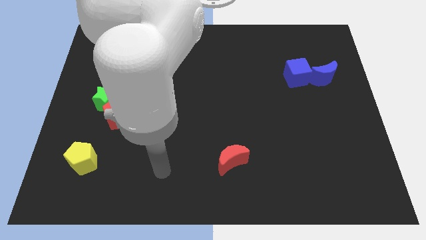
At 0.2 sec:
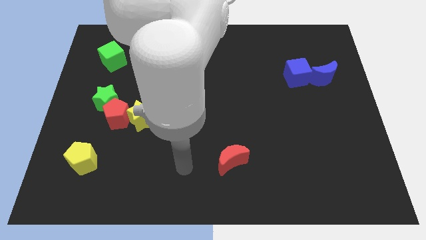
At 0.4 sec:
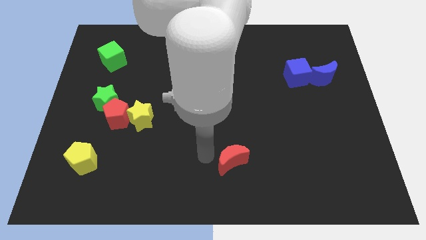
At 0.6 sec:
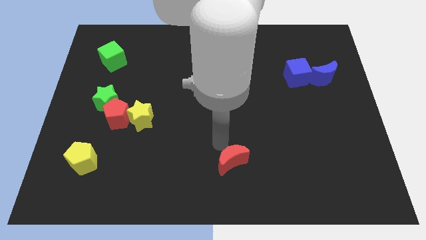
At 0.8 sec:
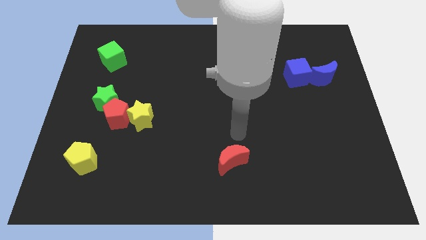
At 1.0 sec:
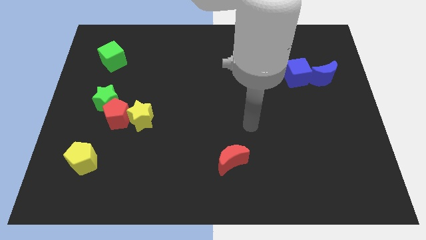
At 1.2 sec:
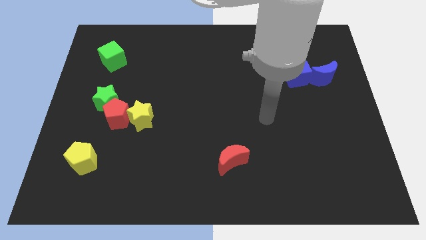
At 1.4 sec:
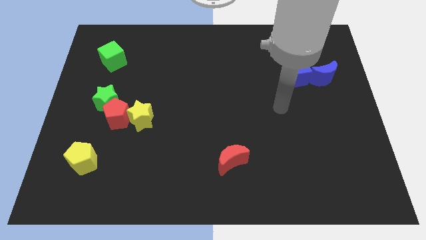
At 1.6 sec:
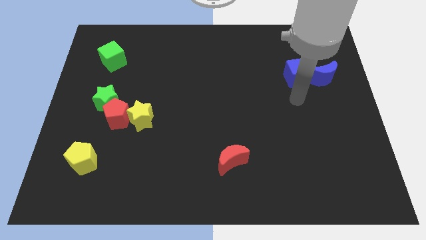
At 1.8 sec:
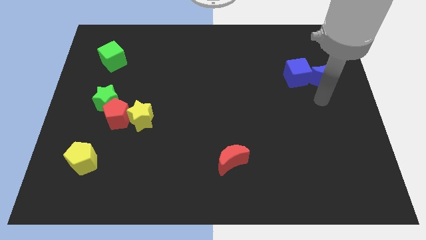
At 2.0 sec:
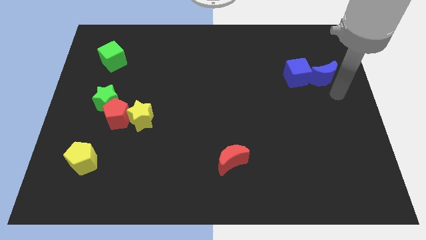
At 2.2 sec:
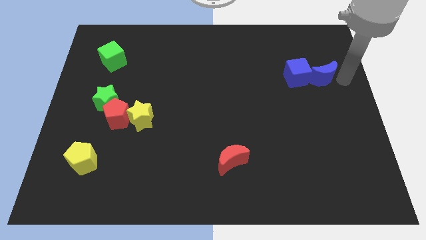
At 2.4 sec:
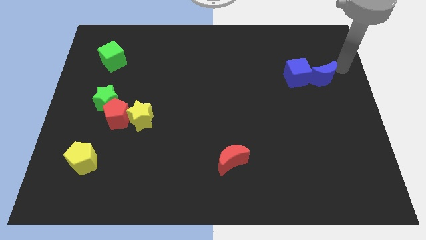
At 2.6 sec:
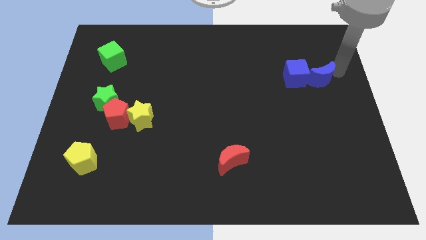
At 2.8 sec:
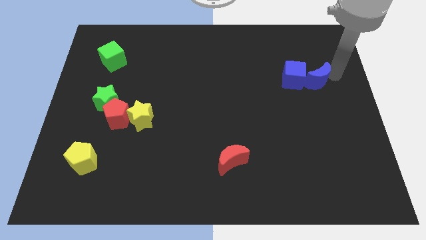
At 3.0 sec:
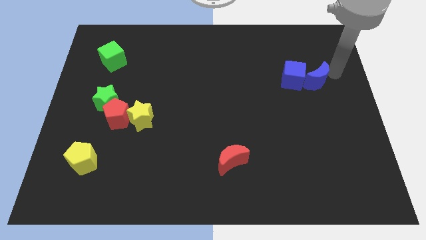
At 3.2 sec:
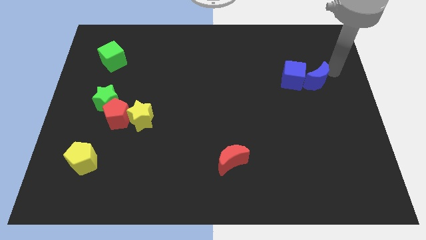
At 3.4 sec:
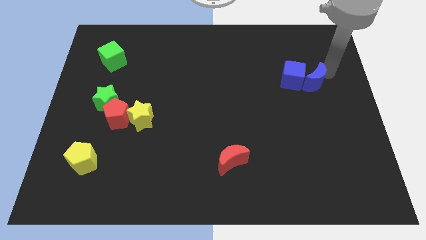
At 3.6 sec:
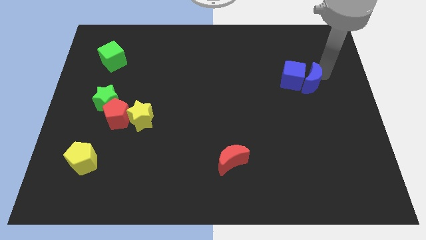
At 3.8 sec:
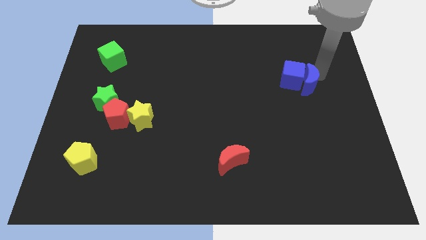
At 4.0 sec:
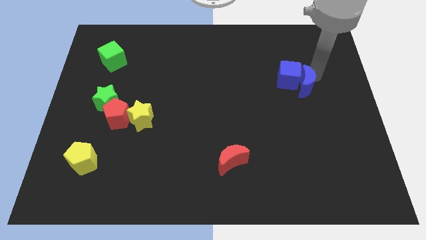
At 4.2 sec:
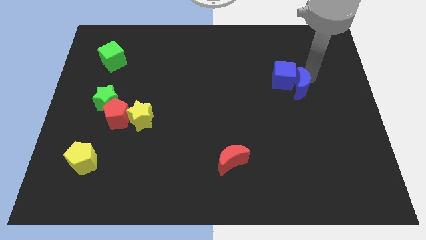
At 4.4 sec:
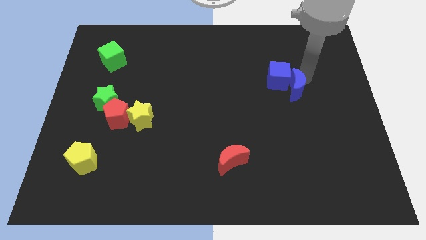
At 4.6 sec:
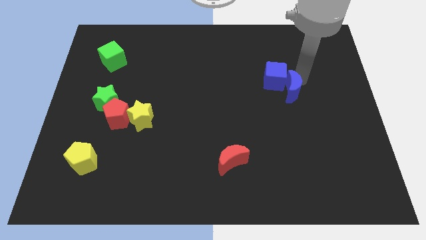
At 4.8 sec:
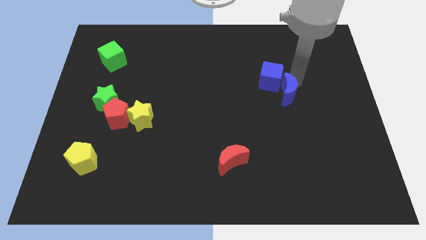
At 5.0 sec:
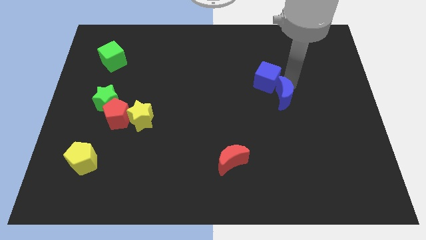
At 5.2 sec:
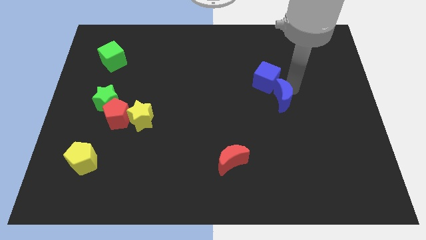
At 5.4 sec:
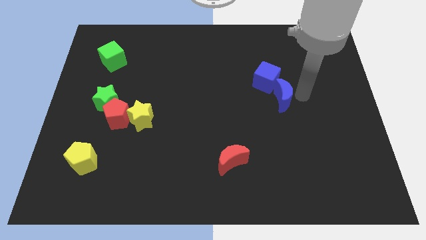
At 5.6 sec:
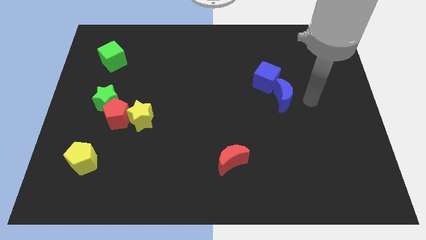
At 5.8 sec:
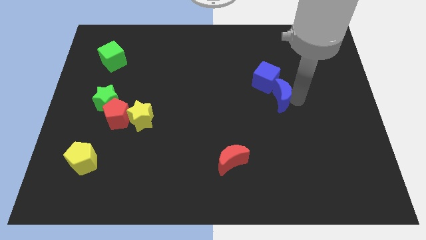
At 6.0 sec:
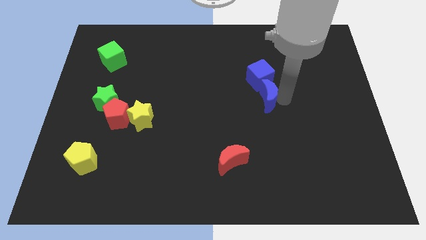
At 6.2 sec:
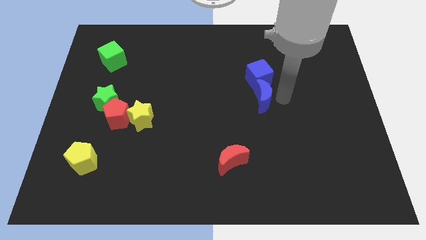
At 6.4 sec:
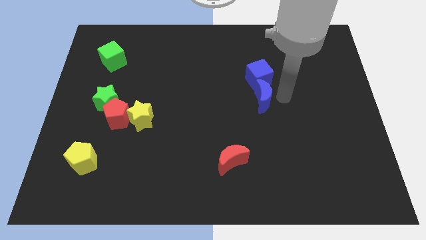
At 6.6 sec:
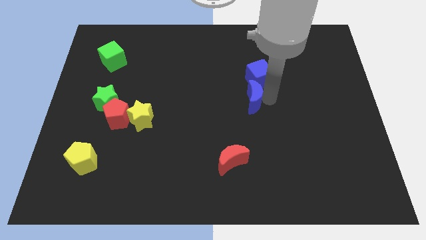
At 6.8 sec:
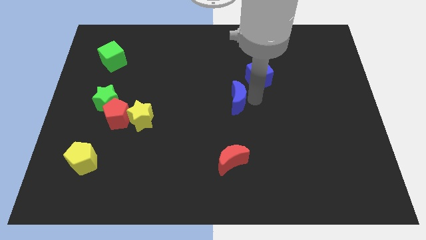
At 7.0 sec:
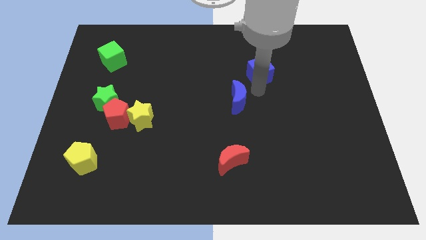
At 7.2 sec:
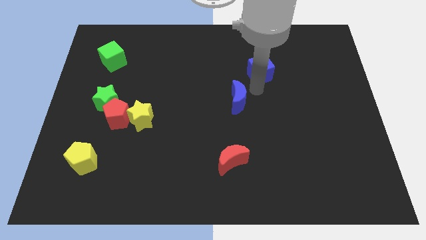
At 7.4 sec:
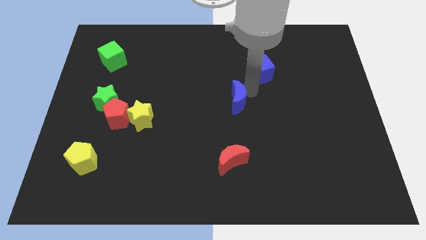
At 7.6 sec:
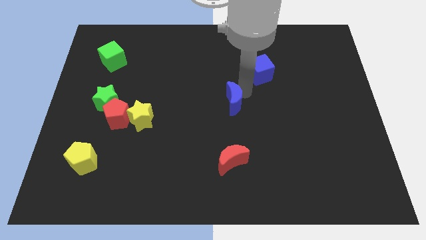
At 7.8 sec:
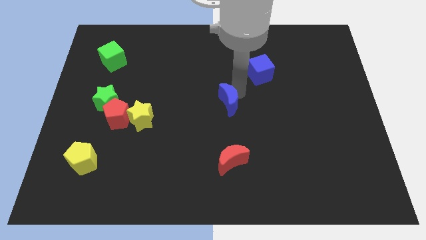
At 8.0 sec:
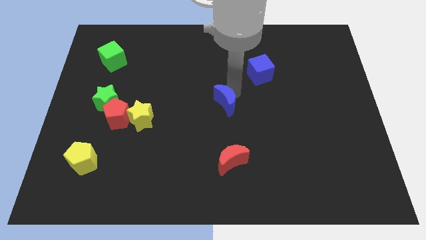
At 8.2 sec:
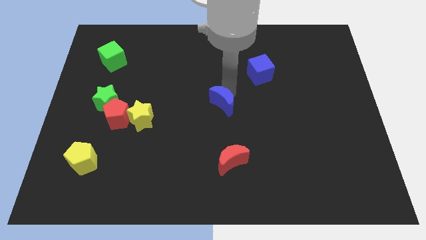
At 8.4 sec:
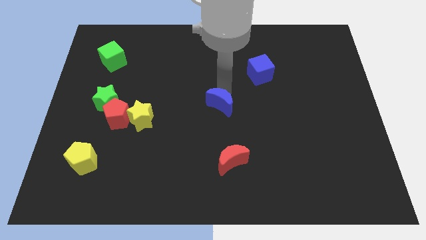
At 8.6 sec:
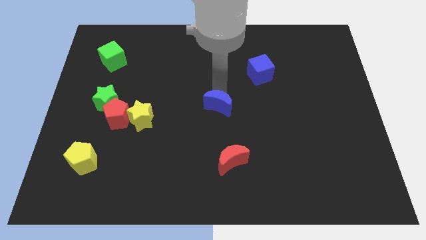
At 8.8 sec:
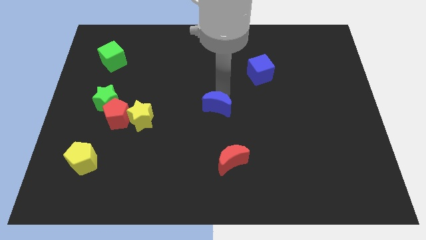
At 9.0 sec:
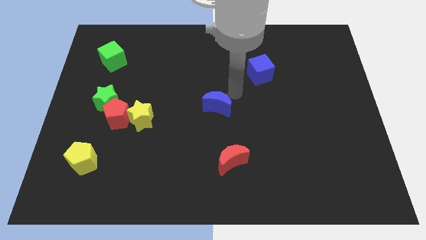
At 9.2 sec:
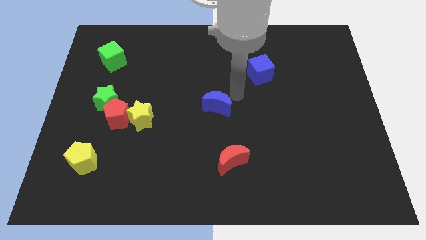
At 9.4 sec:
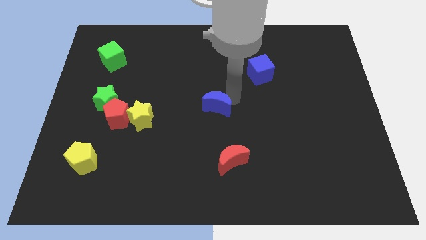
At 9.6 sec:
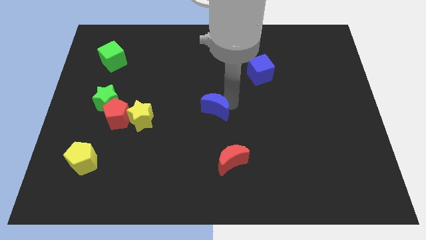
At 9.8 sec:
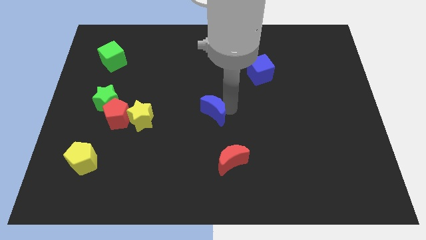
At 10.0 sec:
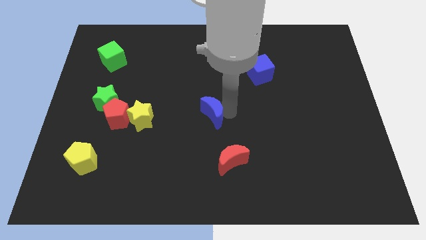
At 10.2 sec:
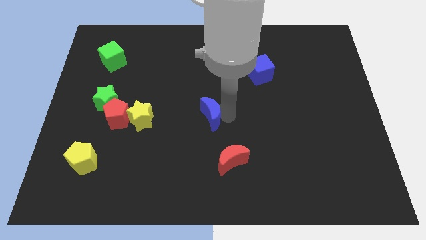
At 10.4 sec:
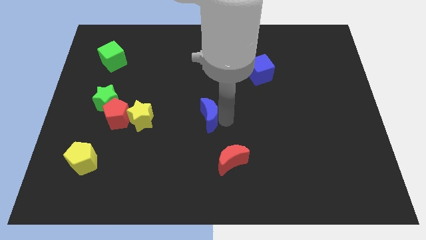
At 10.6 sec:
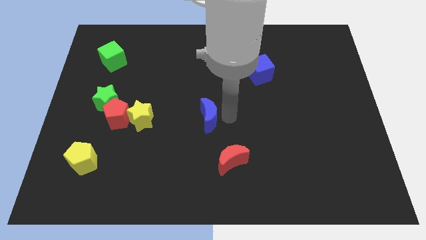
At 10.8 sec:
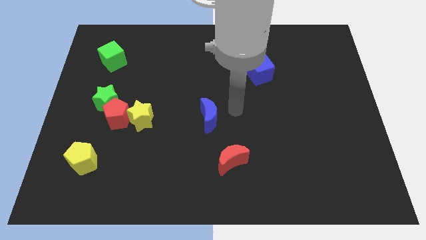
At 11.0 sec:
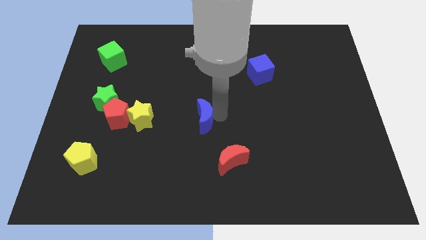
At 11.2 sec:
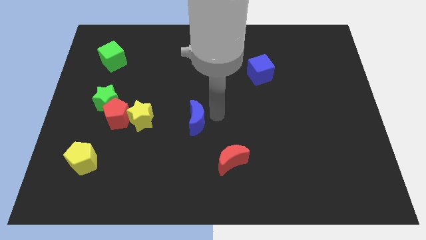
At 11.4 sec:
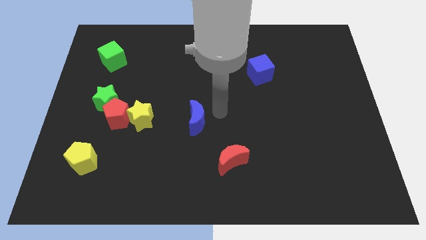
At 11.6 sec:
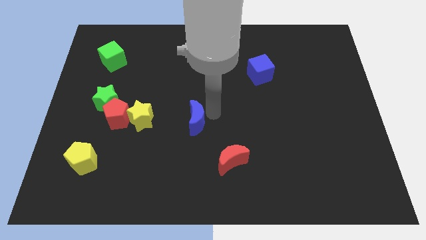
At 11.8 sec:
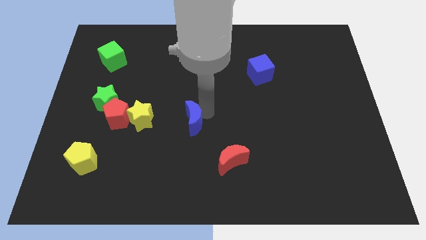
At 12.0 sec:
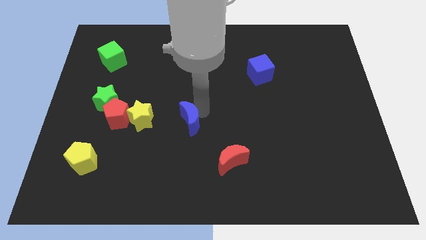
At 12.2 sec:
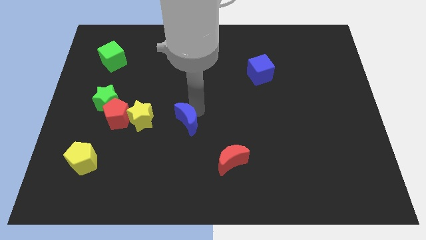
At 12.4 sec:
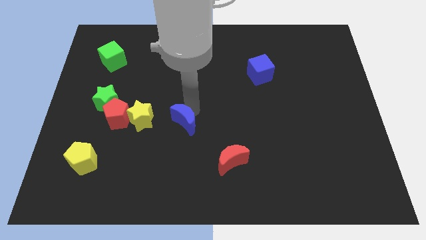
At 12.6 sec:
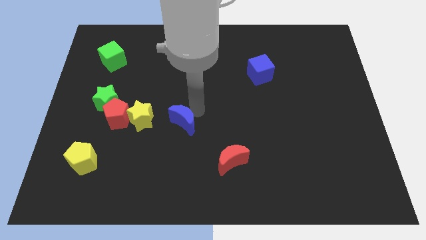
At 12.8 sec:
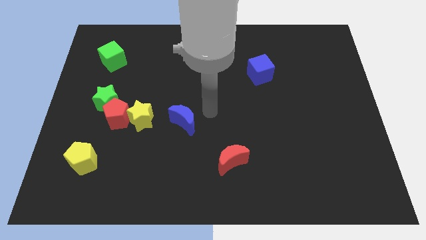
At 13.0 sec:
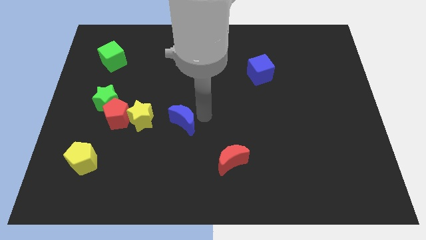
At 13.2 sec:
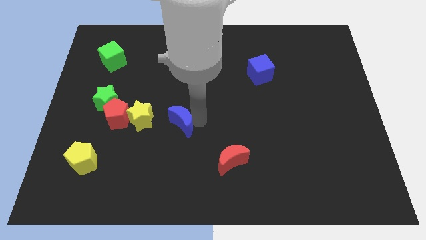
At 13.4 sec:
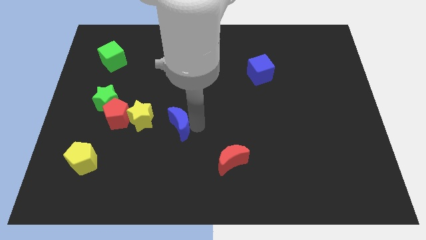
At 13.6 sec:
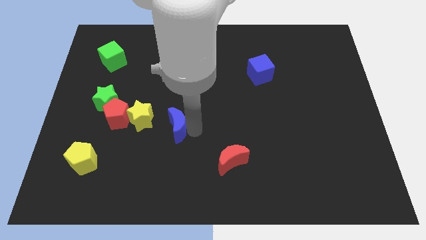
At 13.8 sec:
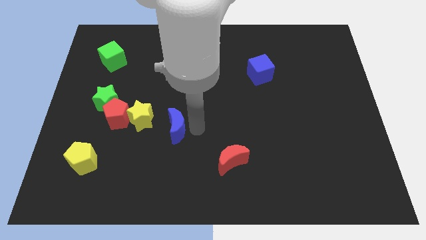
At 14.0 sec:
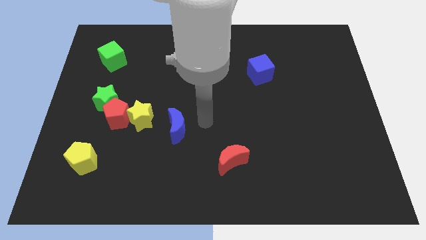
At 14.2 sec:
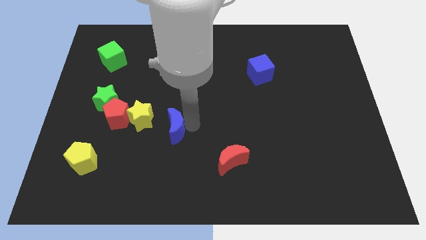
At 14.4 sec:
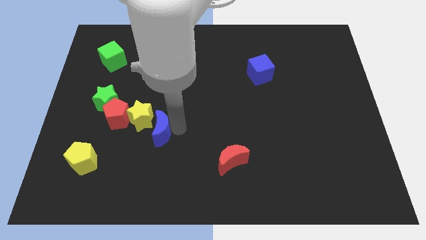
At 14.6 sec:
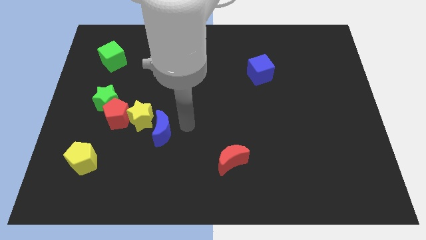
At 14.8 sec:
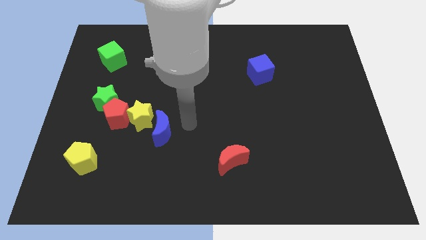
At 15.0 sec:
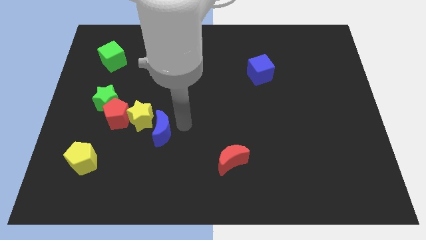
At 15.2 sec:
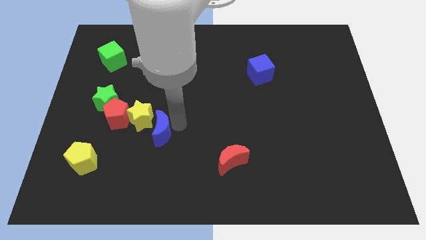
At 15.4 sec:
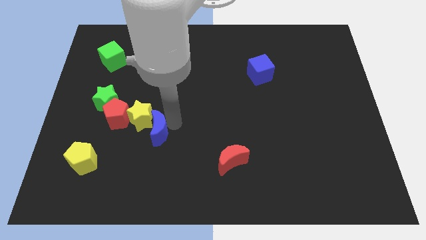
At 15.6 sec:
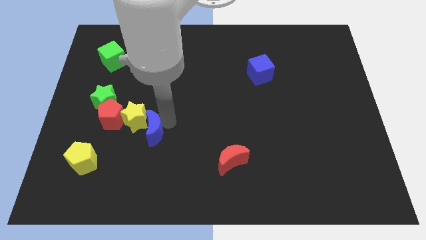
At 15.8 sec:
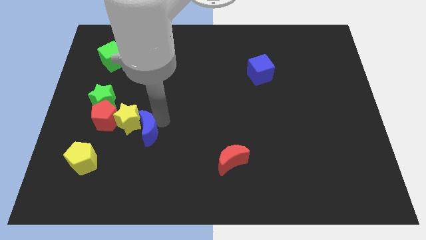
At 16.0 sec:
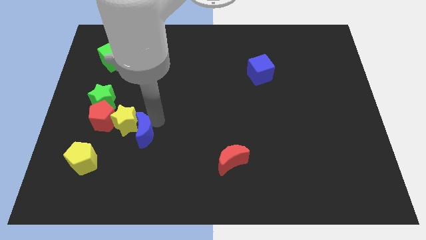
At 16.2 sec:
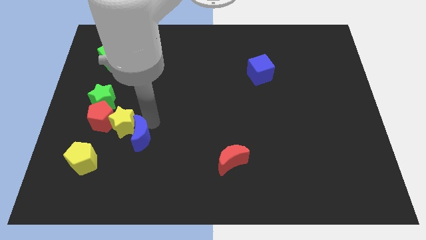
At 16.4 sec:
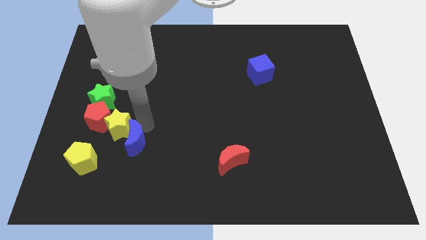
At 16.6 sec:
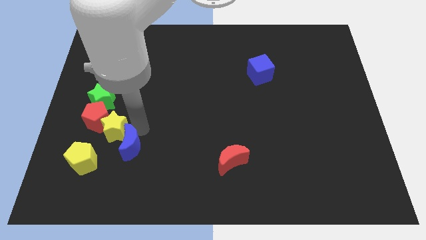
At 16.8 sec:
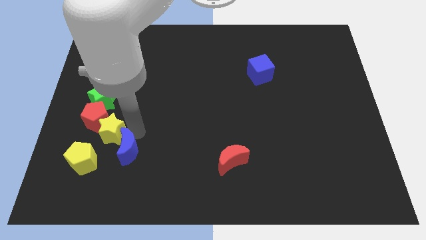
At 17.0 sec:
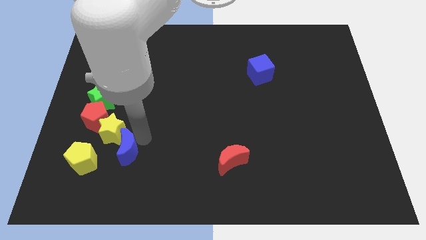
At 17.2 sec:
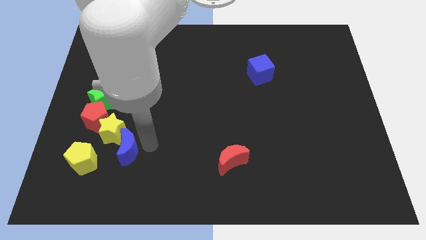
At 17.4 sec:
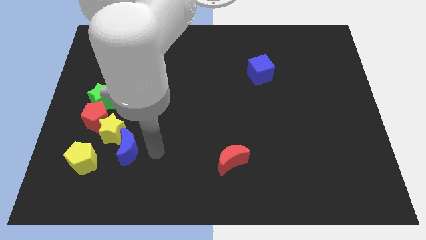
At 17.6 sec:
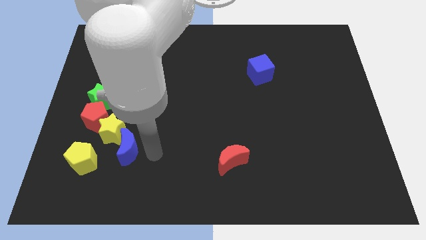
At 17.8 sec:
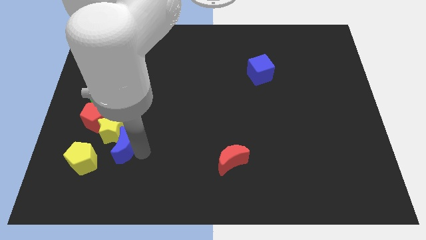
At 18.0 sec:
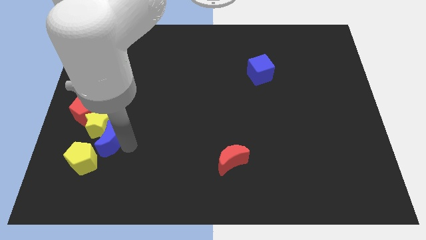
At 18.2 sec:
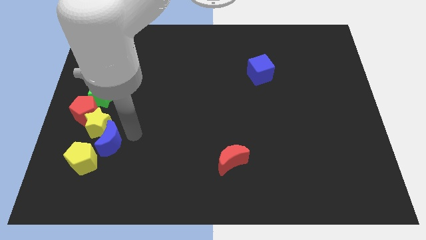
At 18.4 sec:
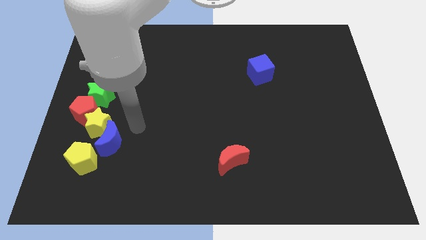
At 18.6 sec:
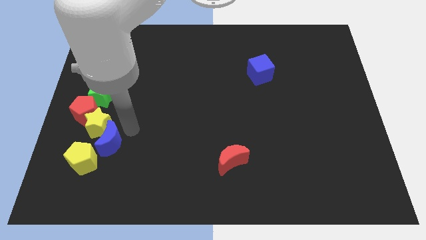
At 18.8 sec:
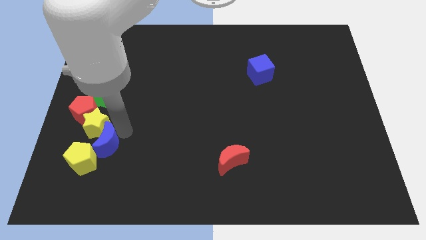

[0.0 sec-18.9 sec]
push the blue moon towards the yellow pentagon
